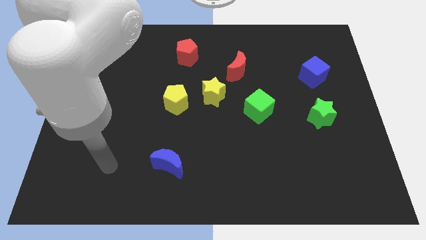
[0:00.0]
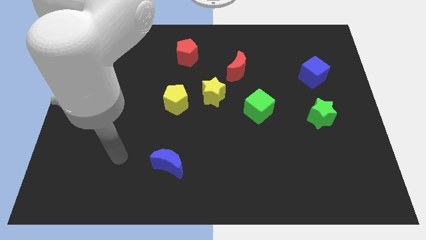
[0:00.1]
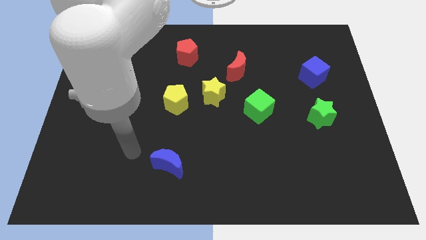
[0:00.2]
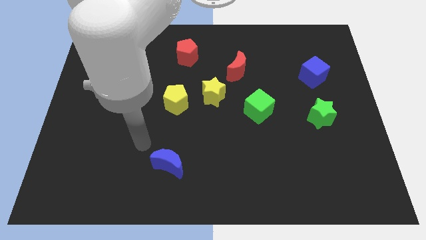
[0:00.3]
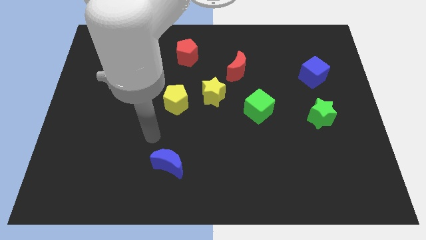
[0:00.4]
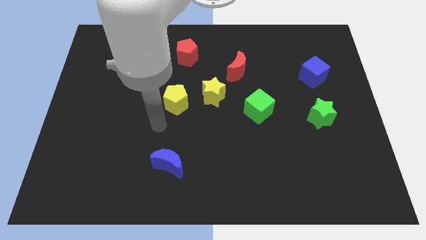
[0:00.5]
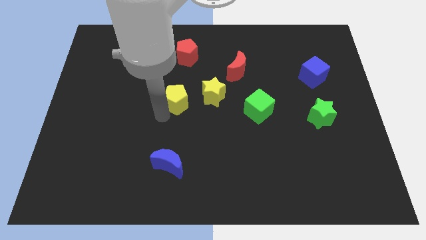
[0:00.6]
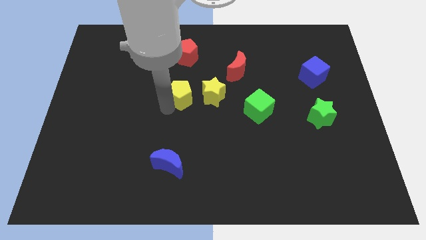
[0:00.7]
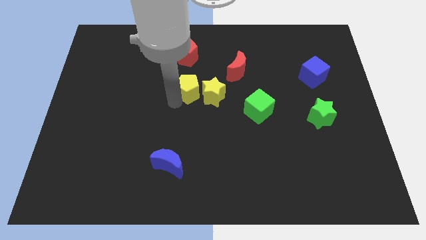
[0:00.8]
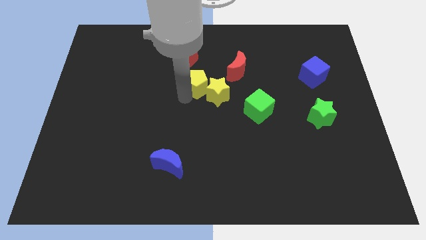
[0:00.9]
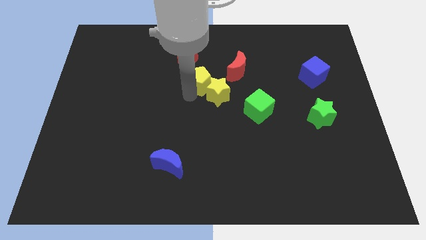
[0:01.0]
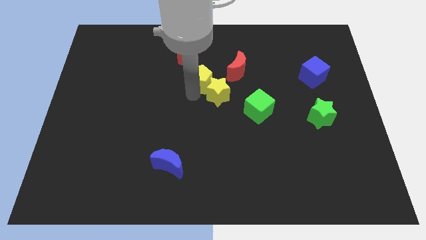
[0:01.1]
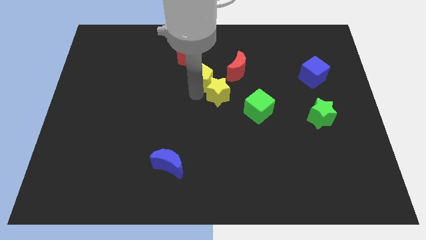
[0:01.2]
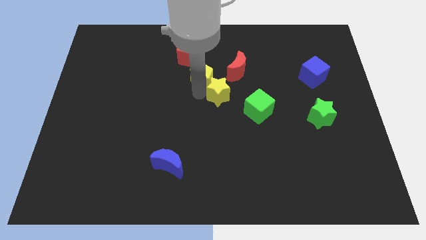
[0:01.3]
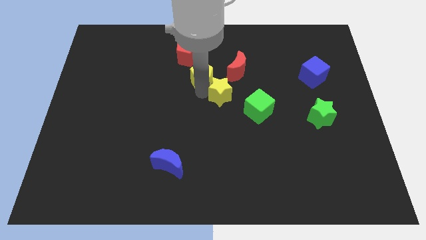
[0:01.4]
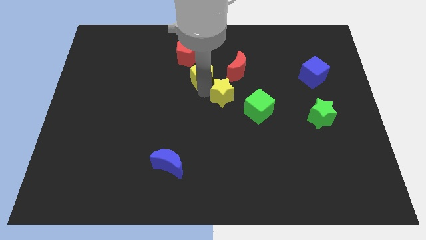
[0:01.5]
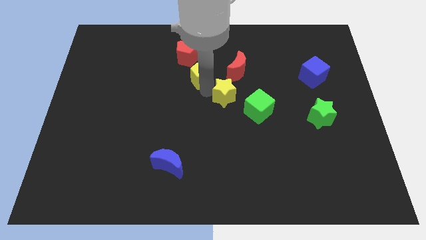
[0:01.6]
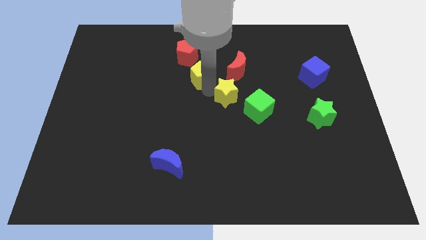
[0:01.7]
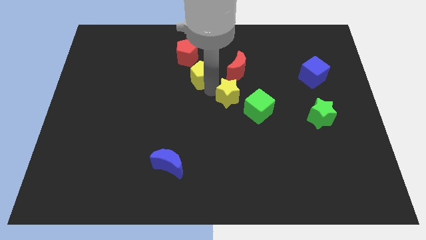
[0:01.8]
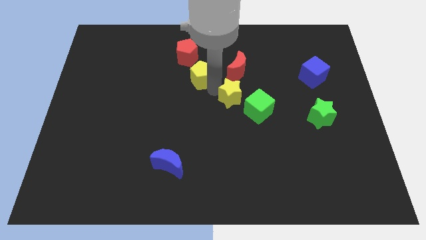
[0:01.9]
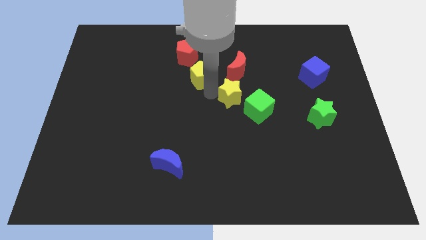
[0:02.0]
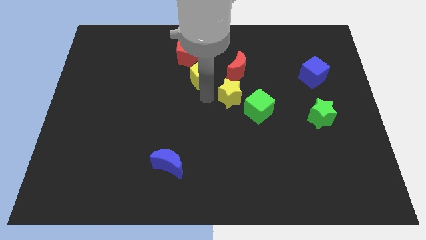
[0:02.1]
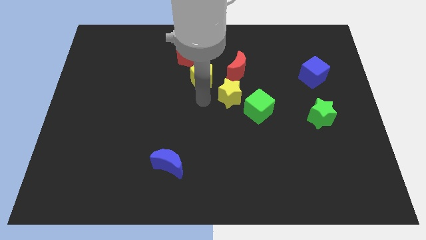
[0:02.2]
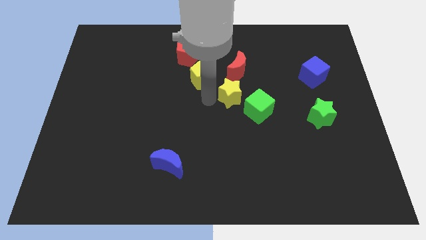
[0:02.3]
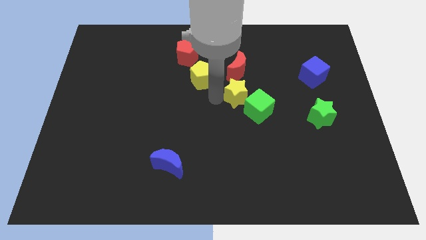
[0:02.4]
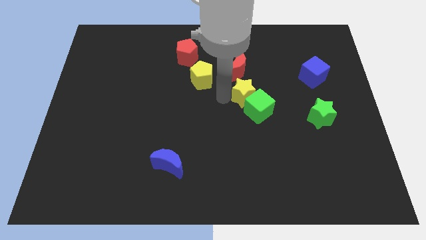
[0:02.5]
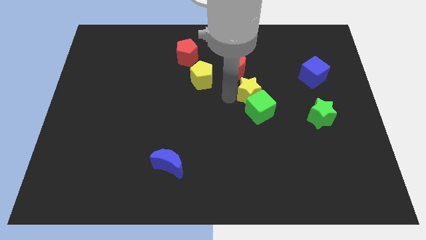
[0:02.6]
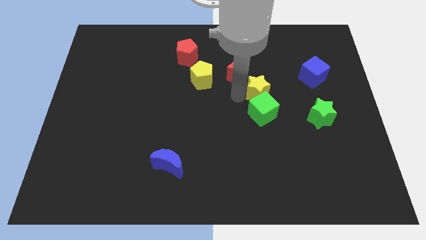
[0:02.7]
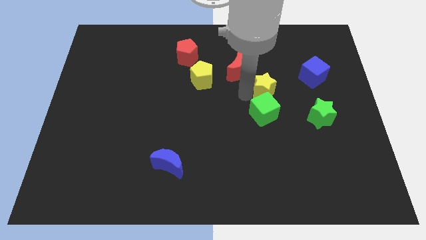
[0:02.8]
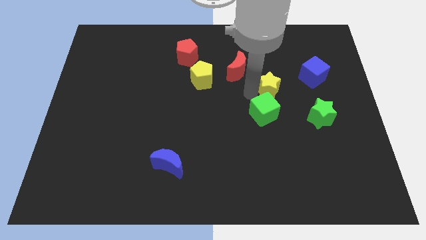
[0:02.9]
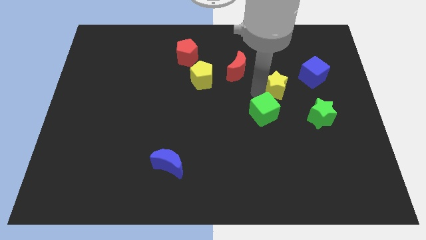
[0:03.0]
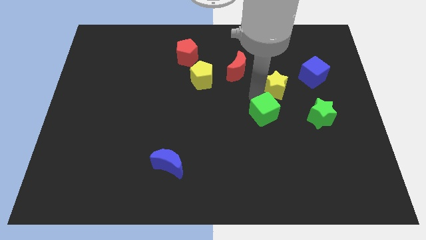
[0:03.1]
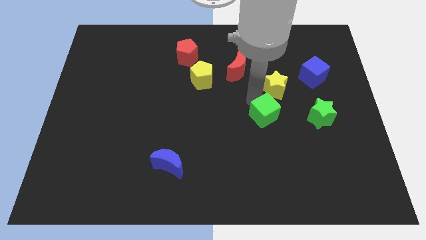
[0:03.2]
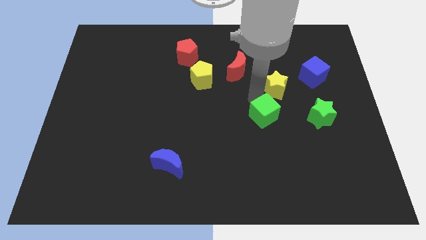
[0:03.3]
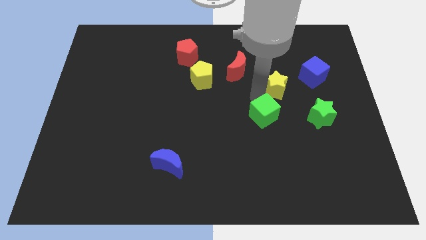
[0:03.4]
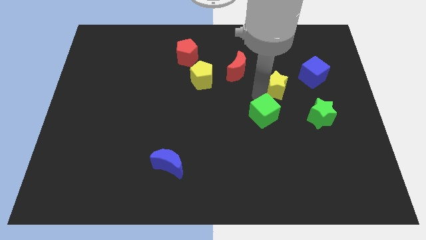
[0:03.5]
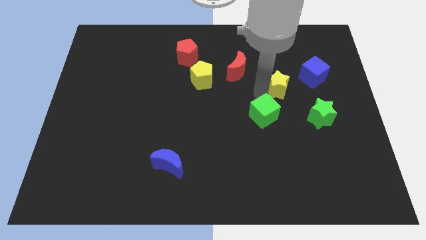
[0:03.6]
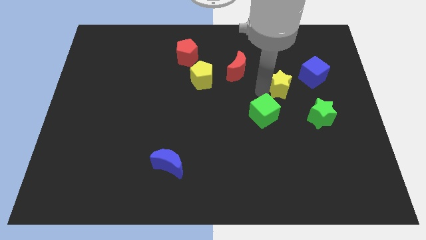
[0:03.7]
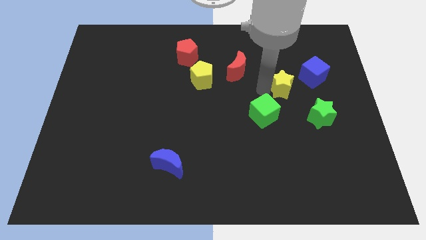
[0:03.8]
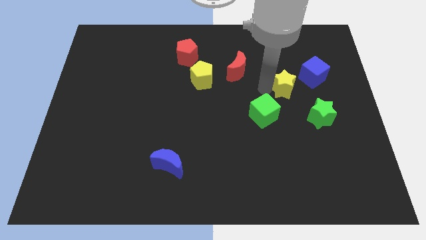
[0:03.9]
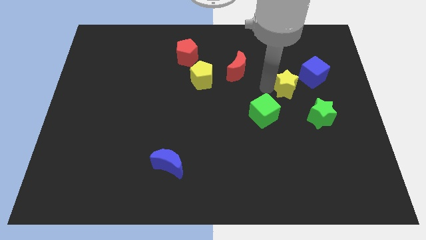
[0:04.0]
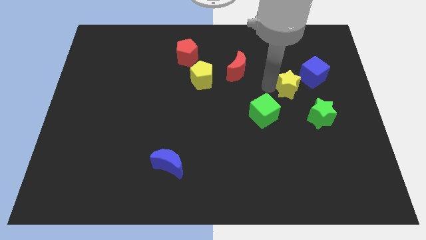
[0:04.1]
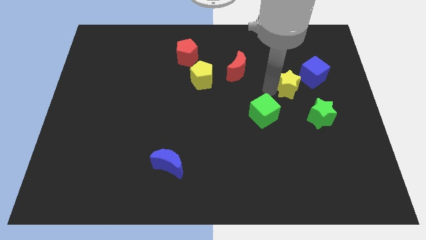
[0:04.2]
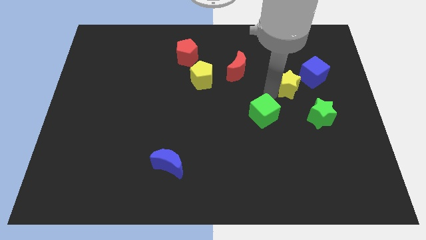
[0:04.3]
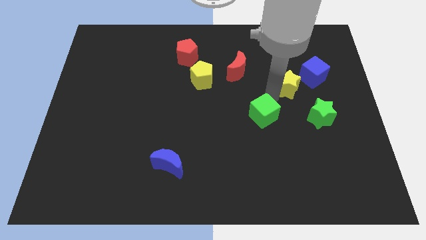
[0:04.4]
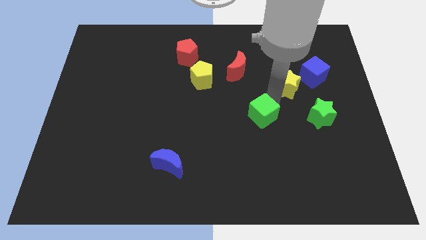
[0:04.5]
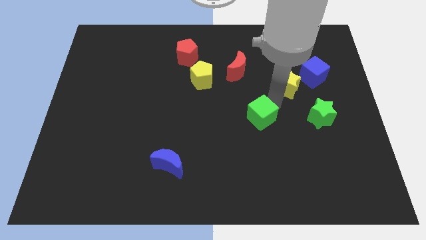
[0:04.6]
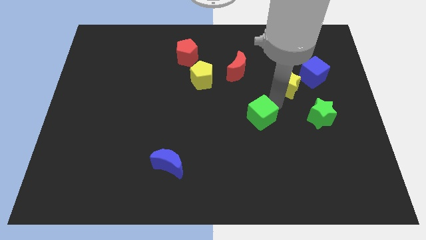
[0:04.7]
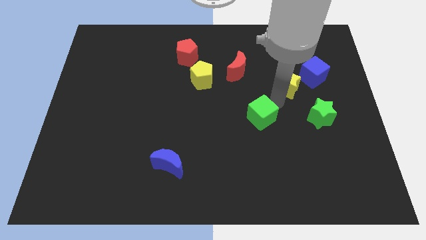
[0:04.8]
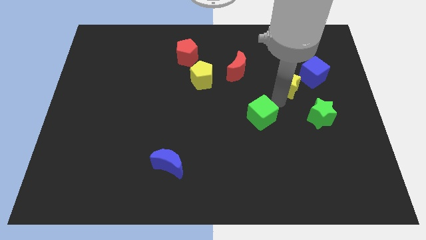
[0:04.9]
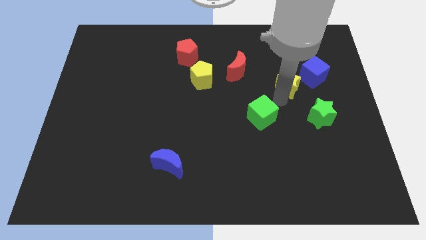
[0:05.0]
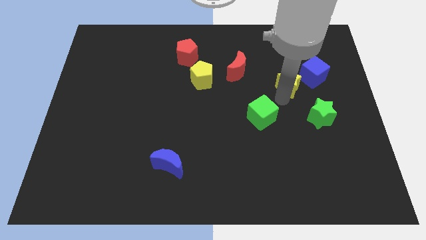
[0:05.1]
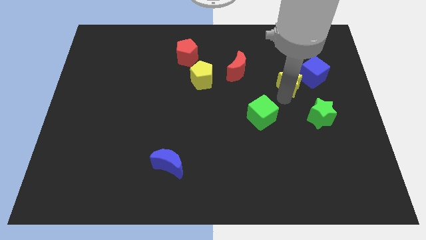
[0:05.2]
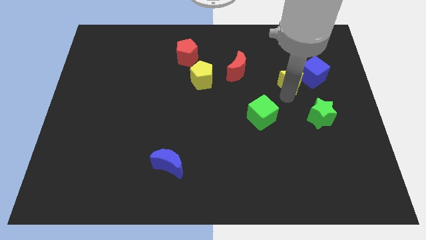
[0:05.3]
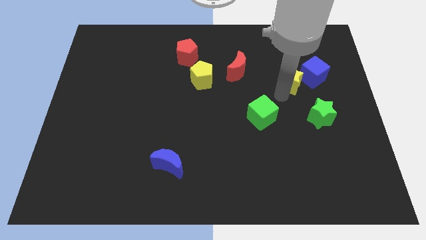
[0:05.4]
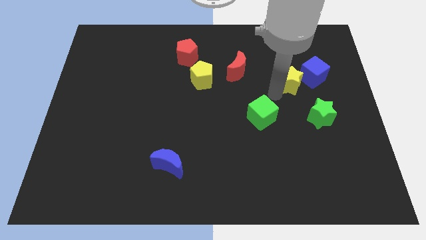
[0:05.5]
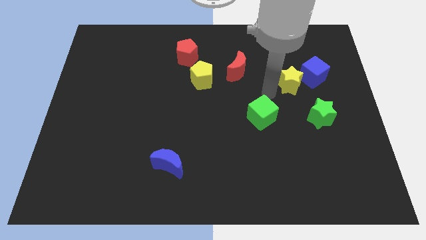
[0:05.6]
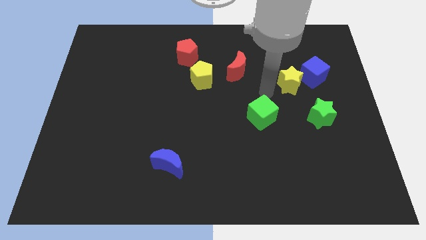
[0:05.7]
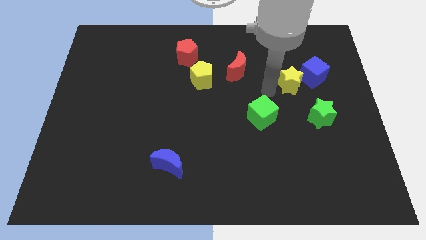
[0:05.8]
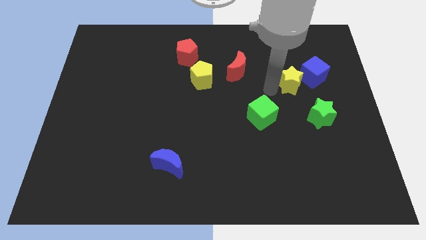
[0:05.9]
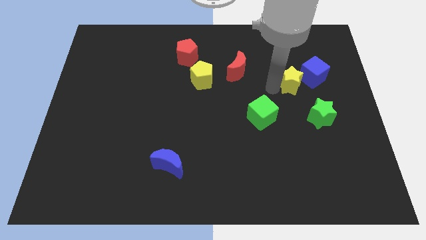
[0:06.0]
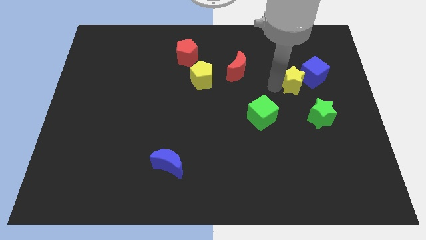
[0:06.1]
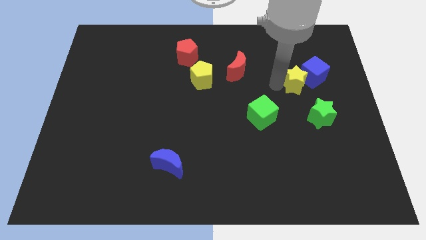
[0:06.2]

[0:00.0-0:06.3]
move the yellow star to the blue cube
